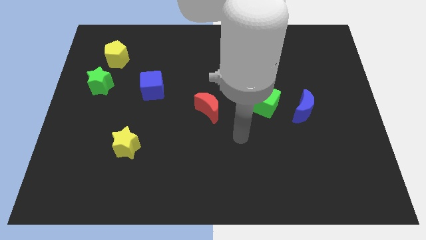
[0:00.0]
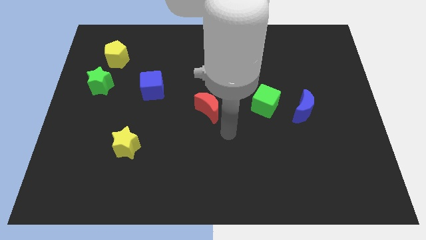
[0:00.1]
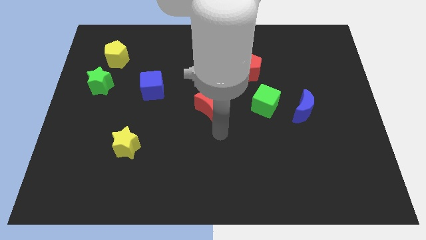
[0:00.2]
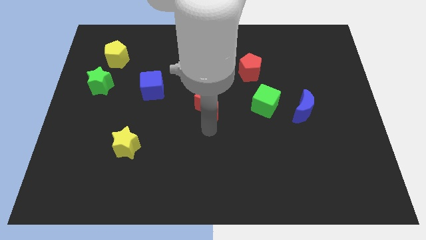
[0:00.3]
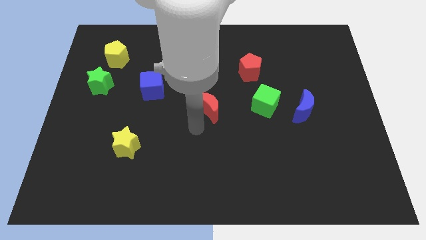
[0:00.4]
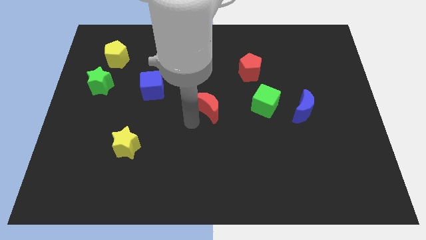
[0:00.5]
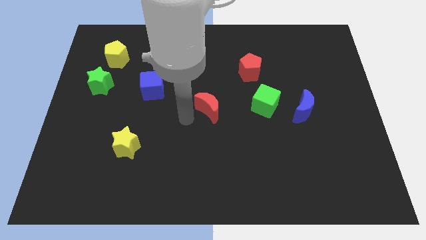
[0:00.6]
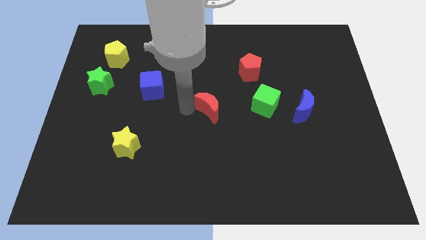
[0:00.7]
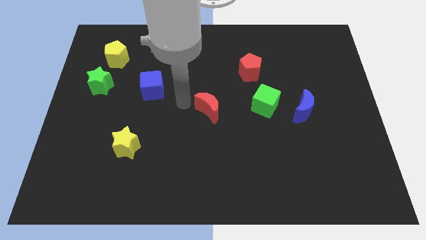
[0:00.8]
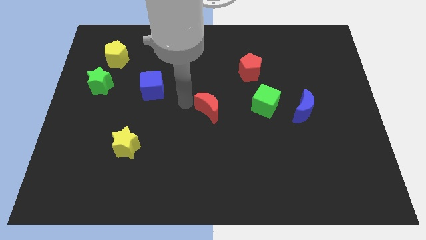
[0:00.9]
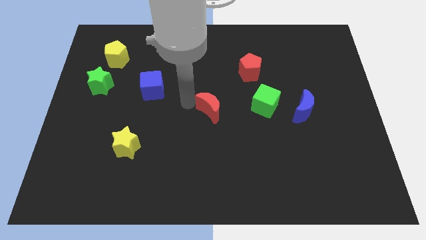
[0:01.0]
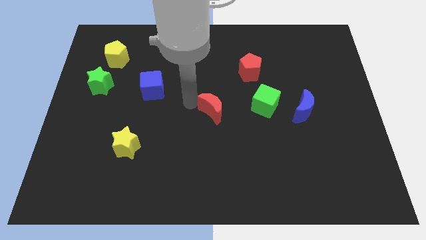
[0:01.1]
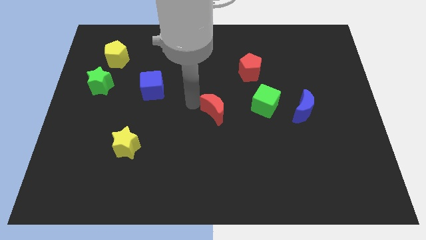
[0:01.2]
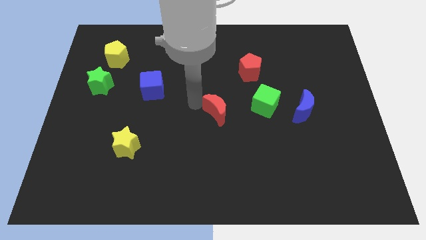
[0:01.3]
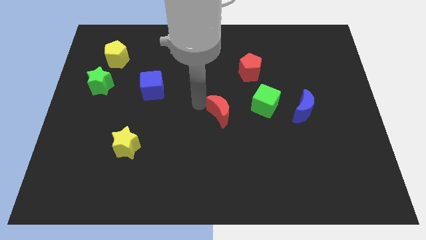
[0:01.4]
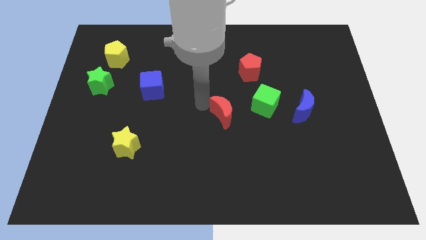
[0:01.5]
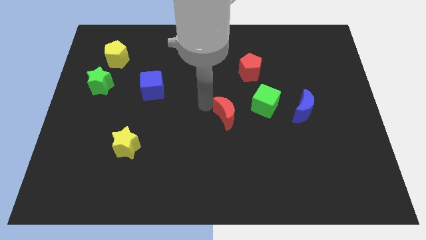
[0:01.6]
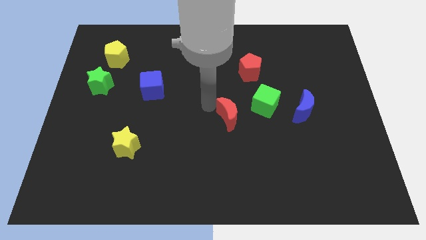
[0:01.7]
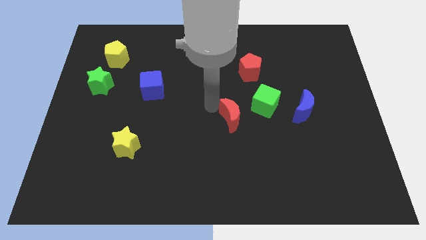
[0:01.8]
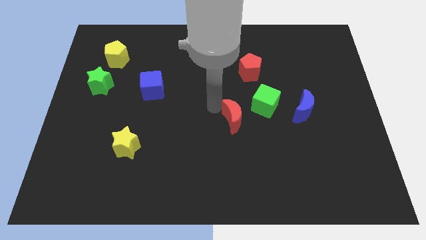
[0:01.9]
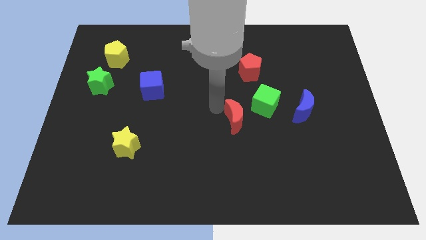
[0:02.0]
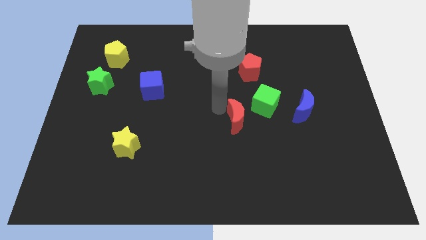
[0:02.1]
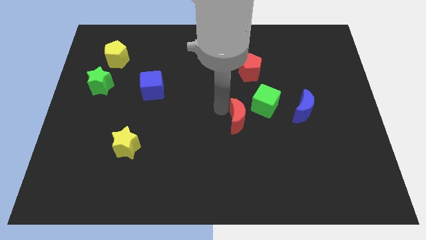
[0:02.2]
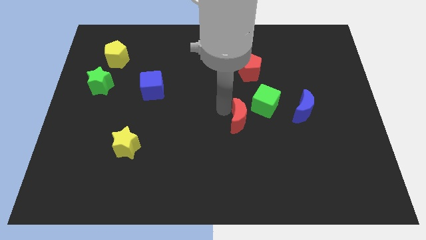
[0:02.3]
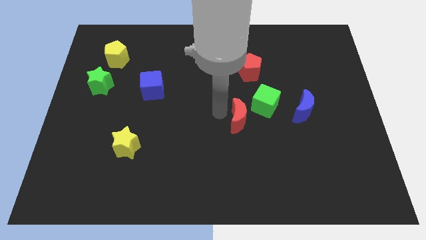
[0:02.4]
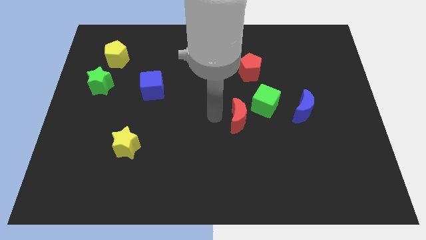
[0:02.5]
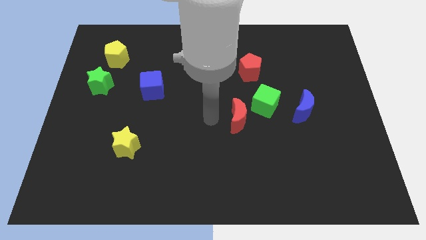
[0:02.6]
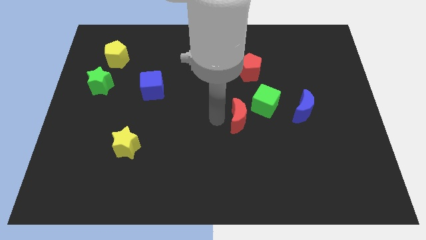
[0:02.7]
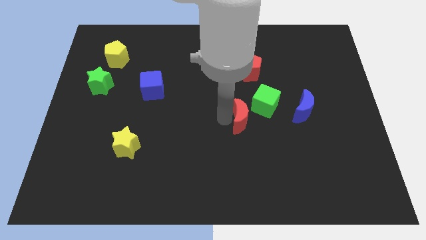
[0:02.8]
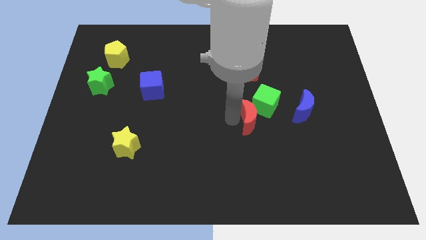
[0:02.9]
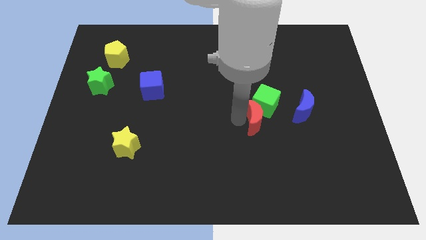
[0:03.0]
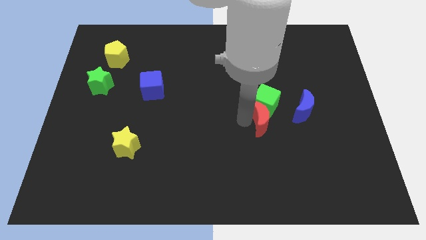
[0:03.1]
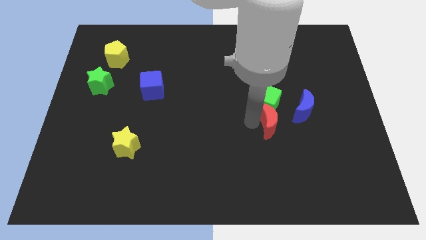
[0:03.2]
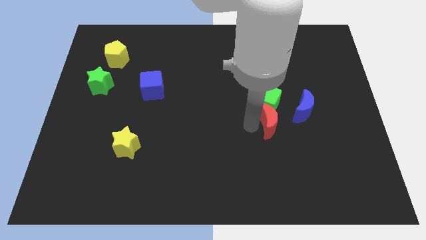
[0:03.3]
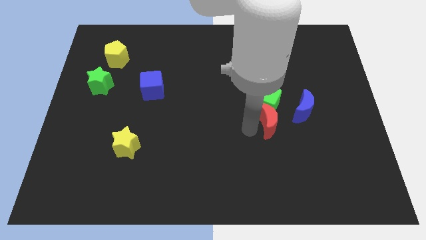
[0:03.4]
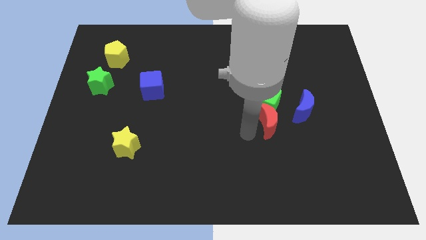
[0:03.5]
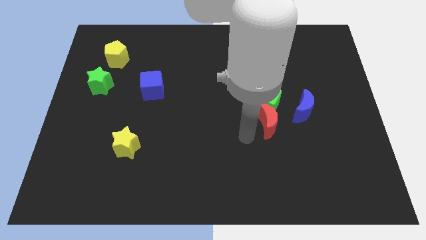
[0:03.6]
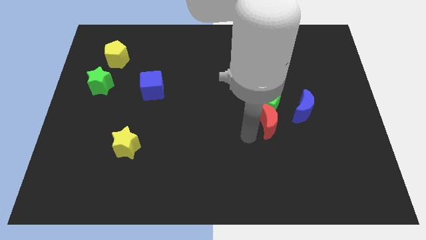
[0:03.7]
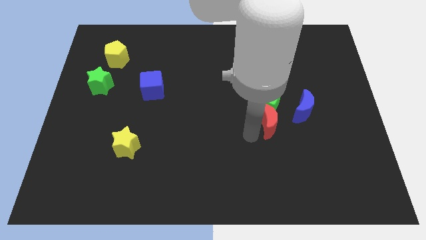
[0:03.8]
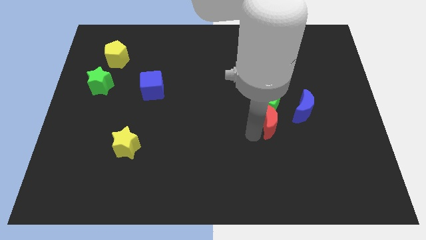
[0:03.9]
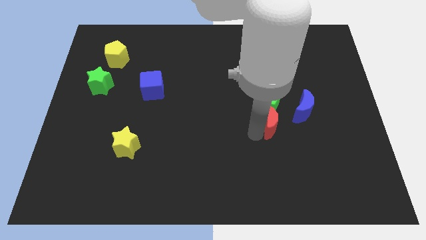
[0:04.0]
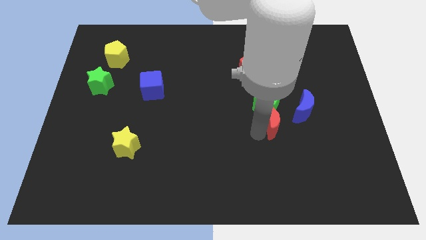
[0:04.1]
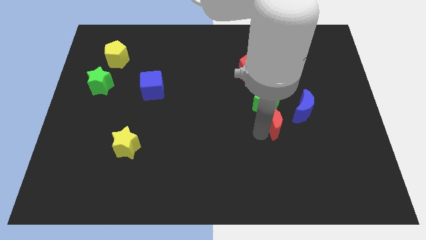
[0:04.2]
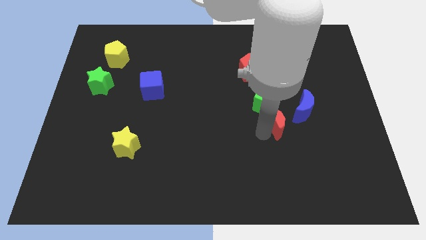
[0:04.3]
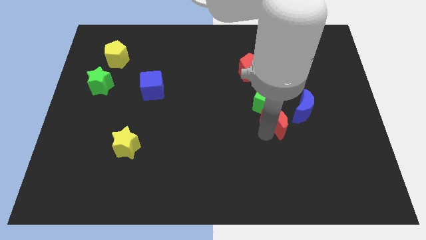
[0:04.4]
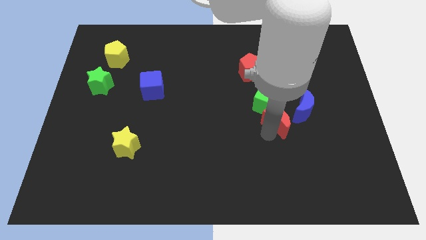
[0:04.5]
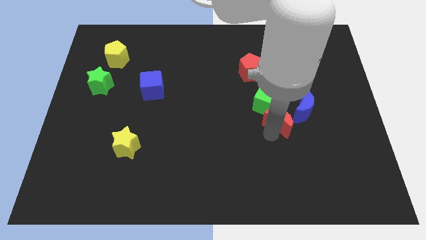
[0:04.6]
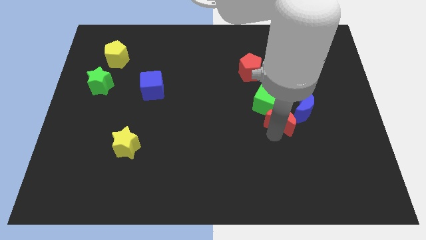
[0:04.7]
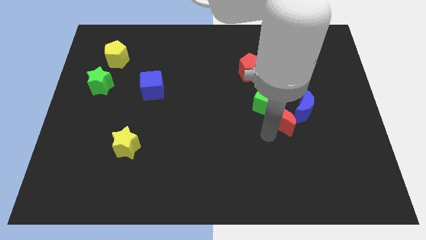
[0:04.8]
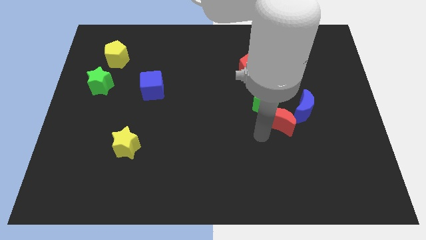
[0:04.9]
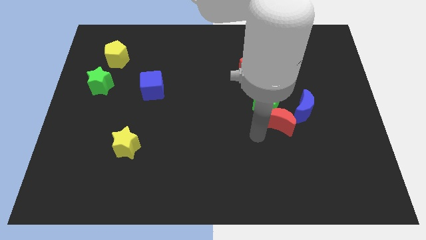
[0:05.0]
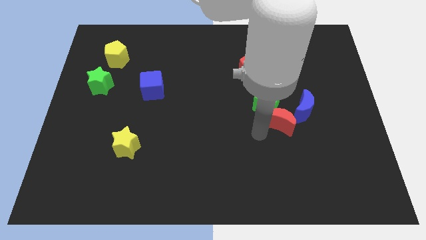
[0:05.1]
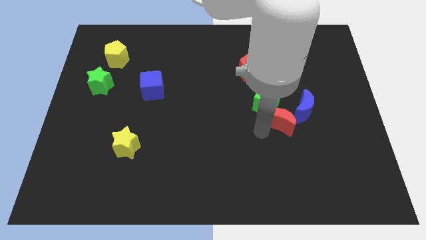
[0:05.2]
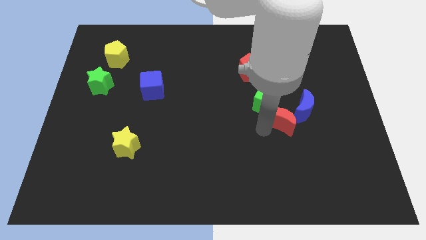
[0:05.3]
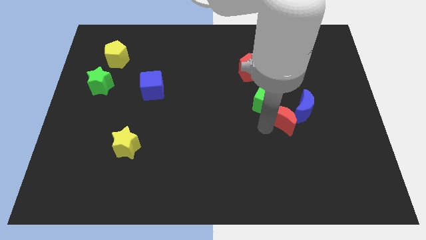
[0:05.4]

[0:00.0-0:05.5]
put the red moon towards the blue moon

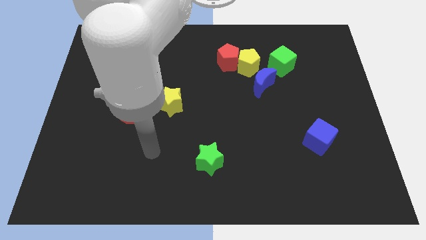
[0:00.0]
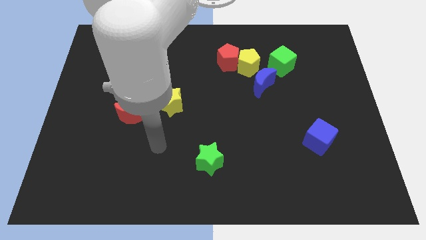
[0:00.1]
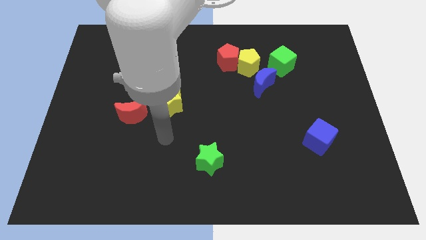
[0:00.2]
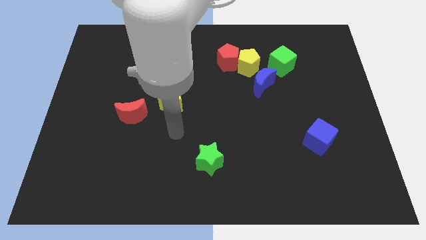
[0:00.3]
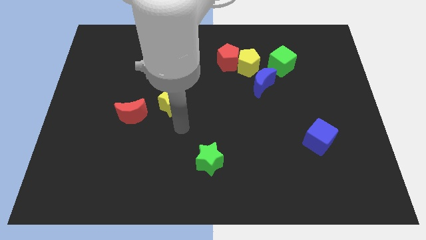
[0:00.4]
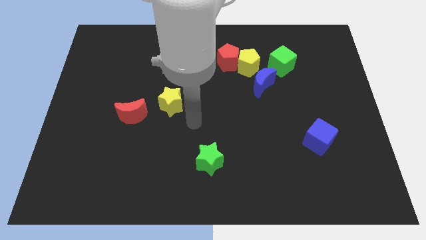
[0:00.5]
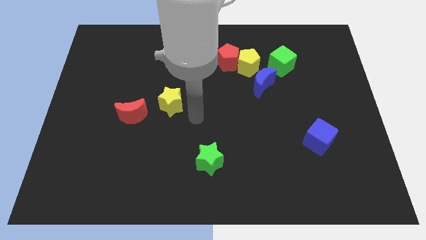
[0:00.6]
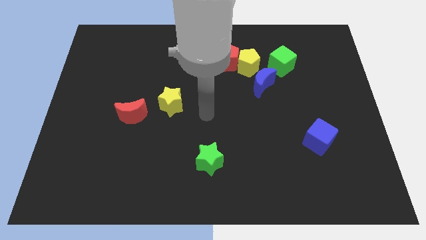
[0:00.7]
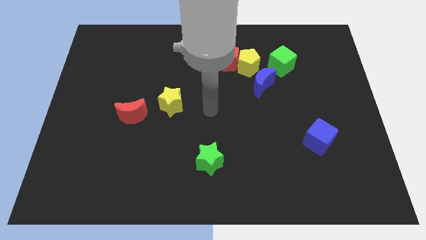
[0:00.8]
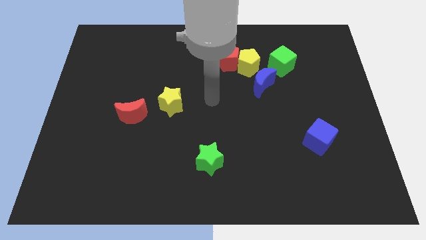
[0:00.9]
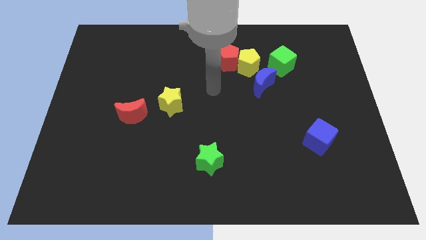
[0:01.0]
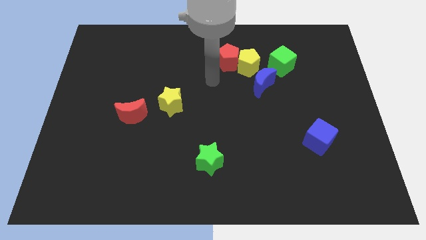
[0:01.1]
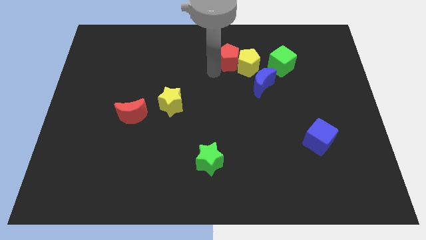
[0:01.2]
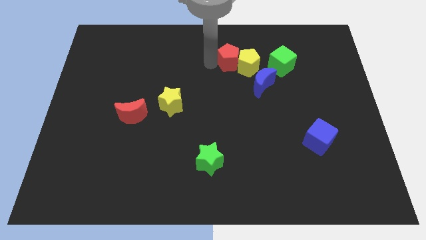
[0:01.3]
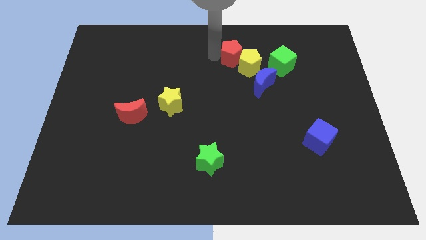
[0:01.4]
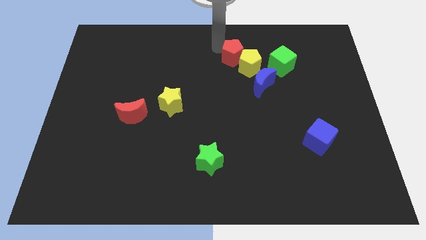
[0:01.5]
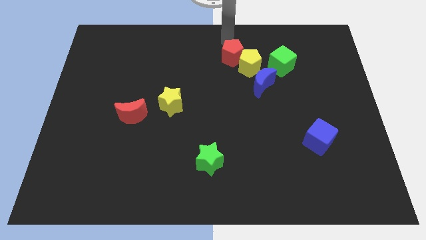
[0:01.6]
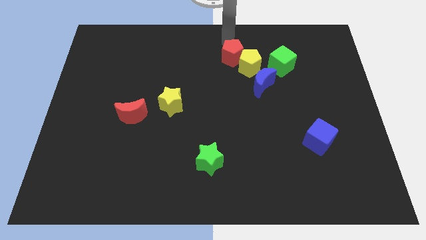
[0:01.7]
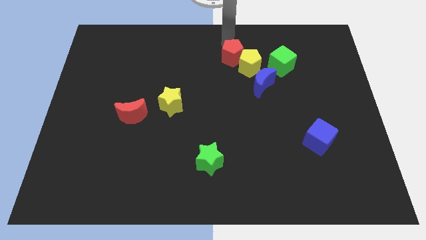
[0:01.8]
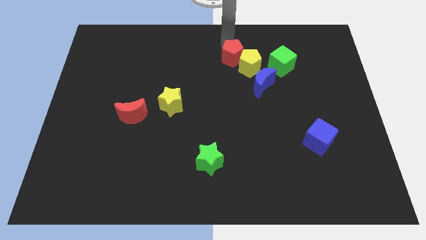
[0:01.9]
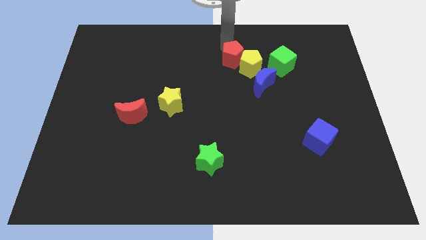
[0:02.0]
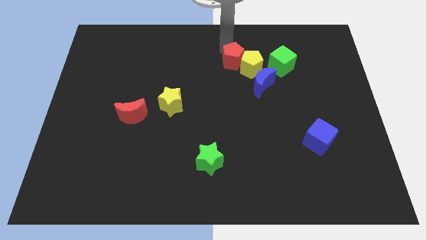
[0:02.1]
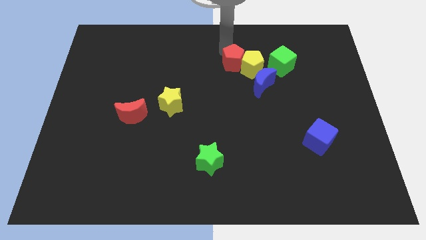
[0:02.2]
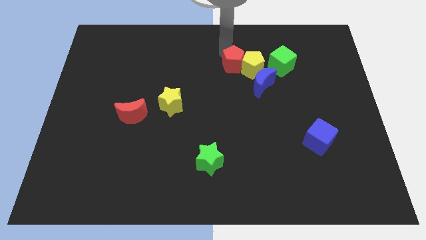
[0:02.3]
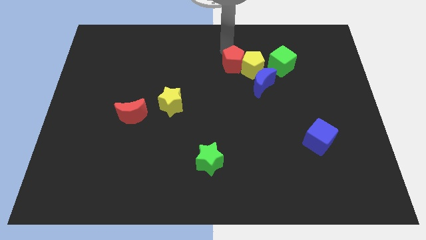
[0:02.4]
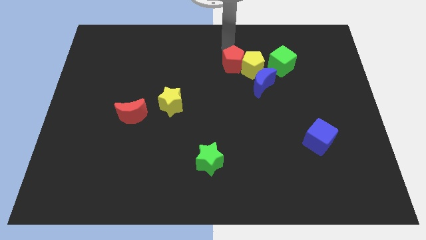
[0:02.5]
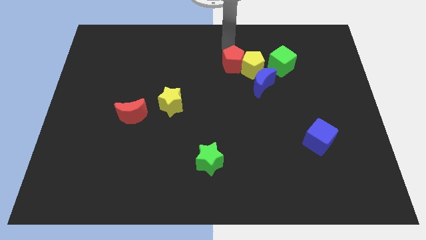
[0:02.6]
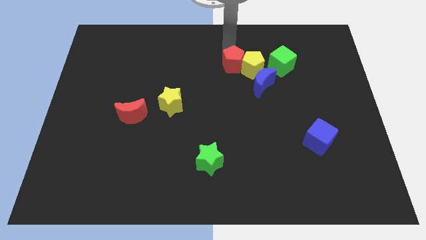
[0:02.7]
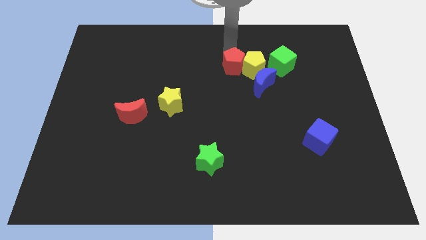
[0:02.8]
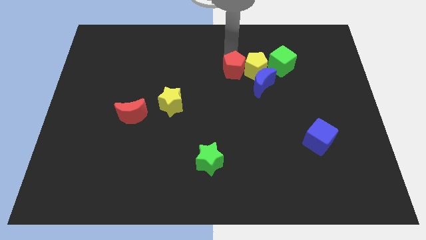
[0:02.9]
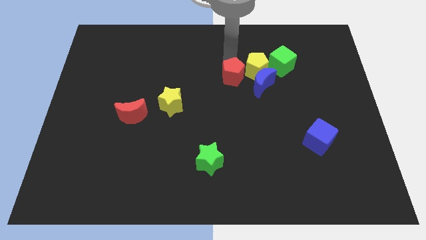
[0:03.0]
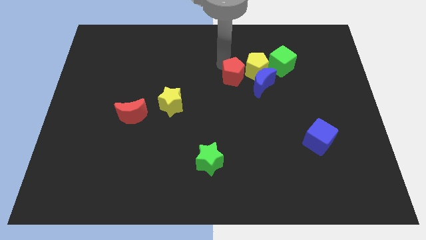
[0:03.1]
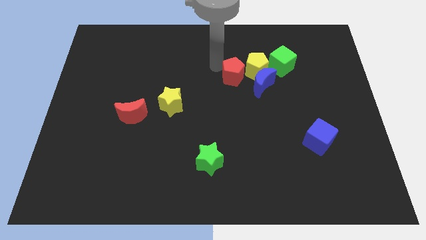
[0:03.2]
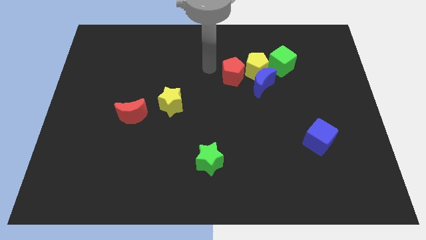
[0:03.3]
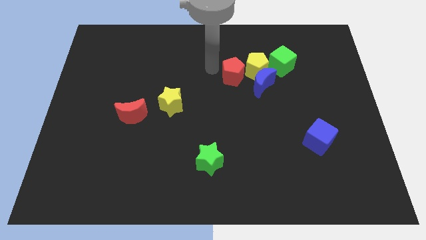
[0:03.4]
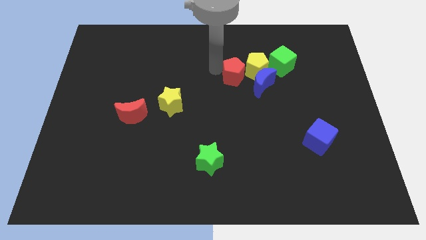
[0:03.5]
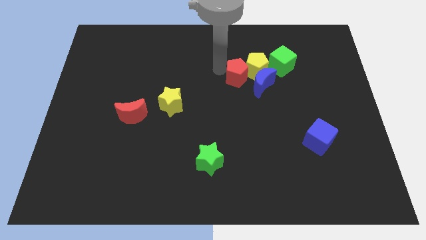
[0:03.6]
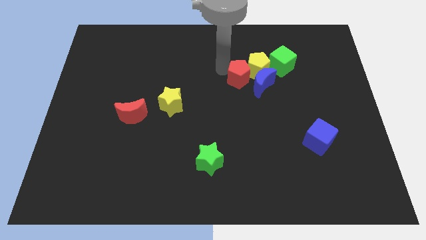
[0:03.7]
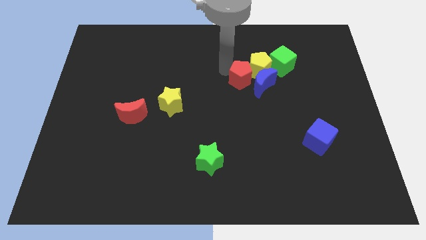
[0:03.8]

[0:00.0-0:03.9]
move the red pentagon close to the blue moon
